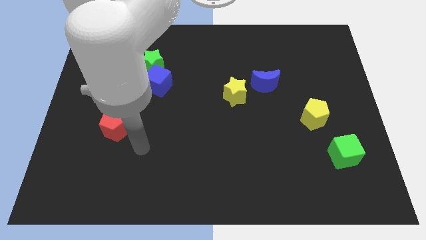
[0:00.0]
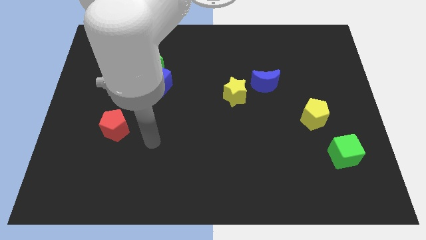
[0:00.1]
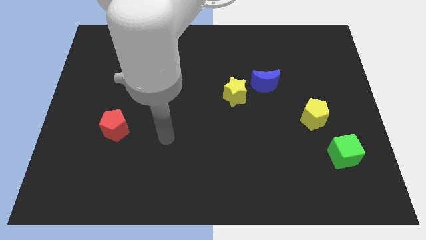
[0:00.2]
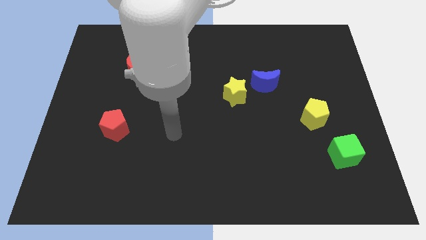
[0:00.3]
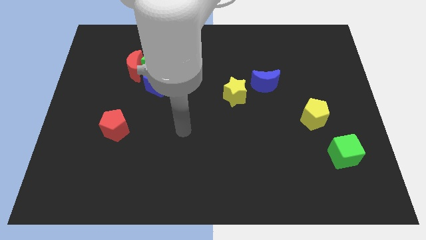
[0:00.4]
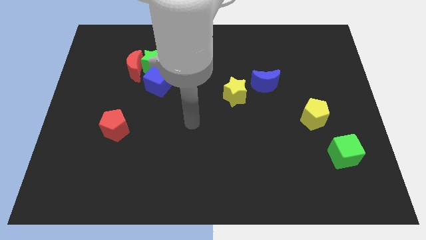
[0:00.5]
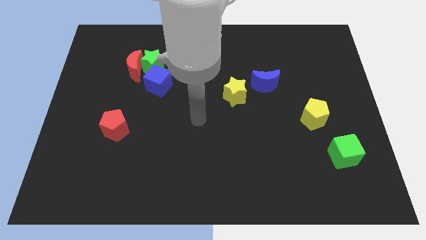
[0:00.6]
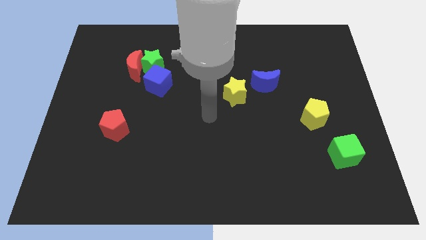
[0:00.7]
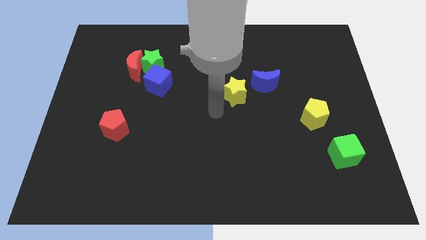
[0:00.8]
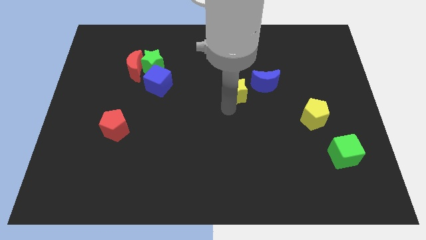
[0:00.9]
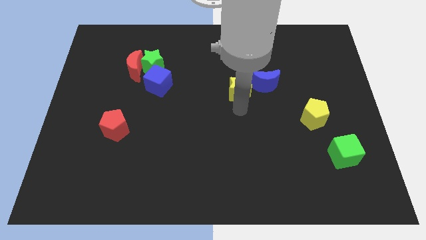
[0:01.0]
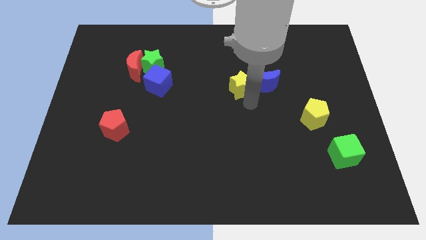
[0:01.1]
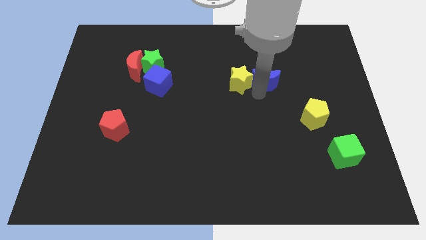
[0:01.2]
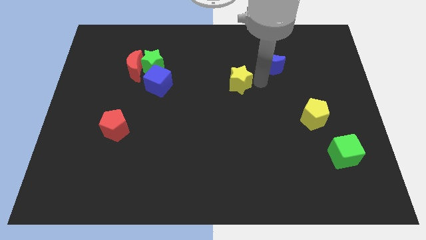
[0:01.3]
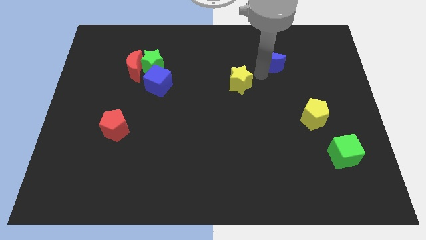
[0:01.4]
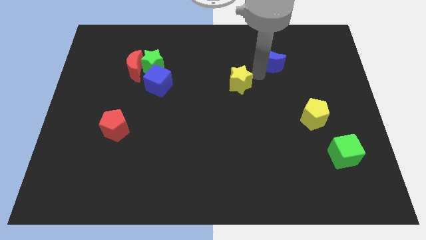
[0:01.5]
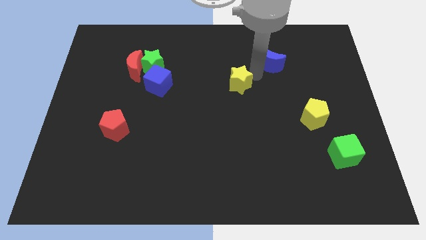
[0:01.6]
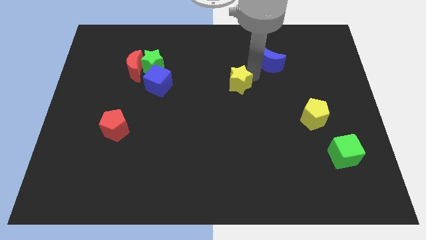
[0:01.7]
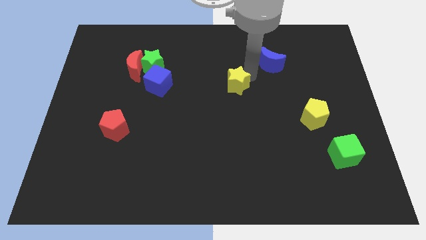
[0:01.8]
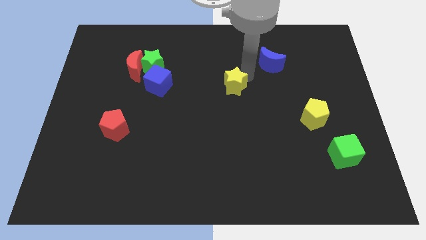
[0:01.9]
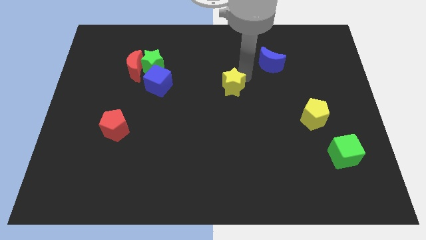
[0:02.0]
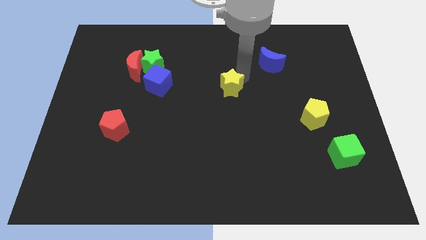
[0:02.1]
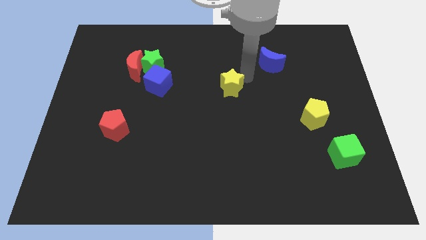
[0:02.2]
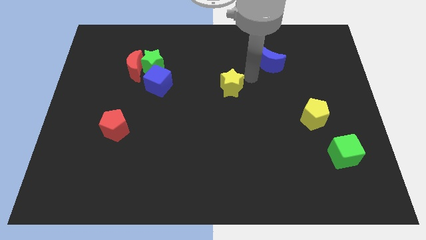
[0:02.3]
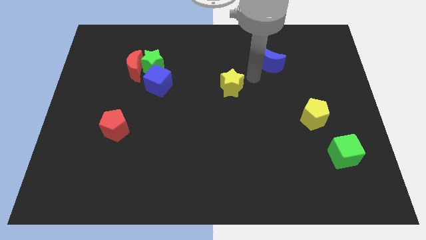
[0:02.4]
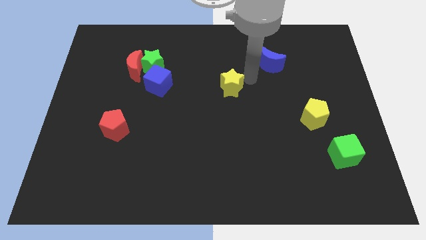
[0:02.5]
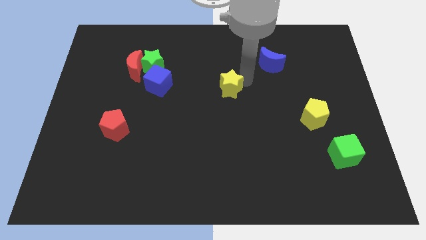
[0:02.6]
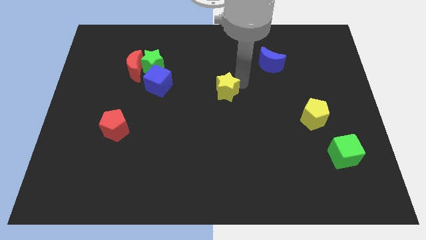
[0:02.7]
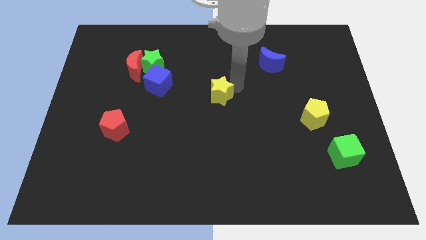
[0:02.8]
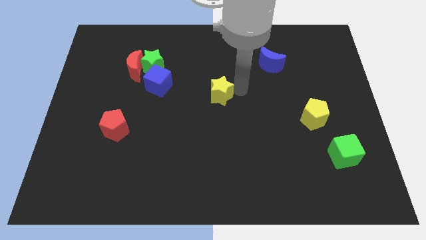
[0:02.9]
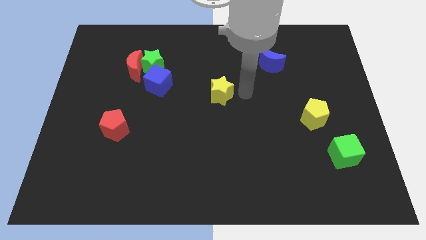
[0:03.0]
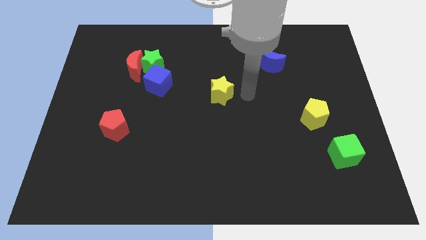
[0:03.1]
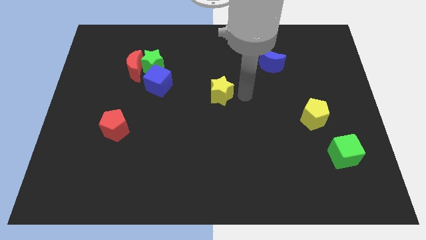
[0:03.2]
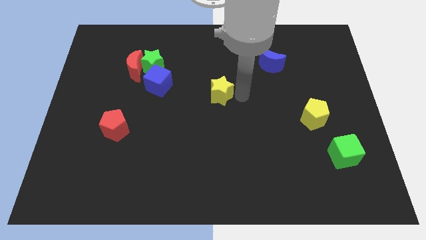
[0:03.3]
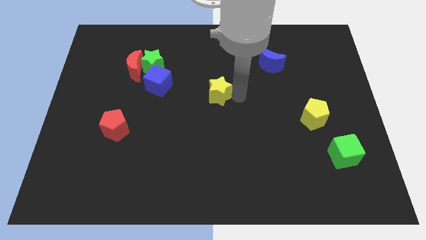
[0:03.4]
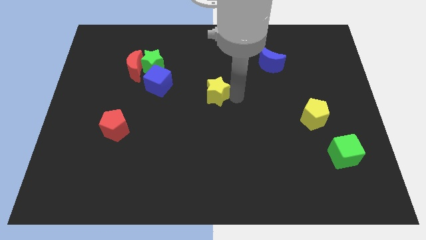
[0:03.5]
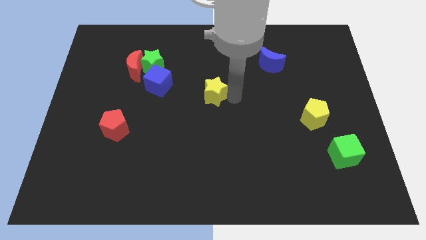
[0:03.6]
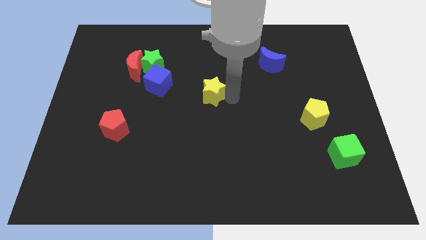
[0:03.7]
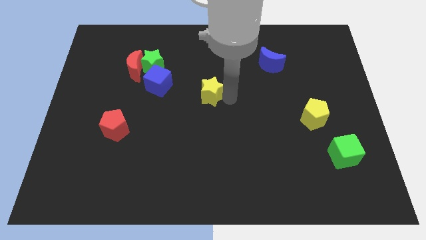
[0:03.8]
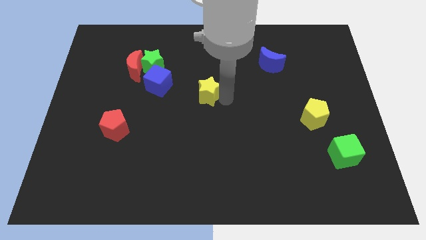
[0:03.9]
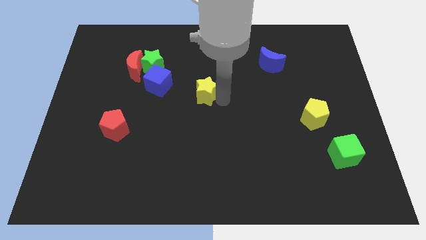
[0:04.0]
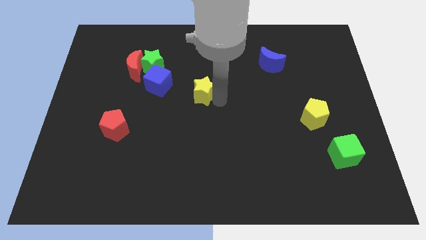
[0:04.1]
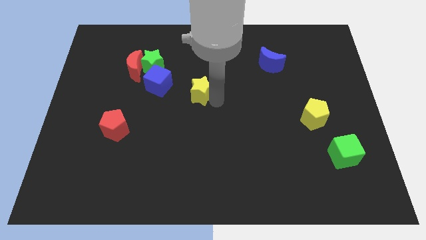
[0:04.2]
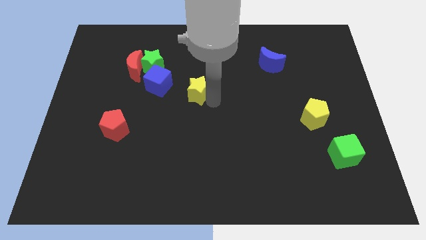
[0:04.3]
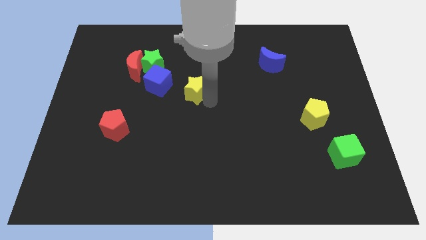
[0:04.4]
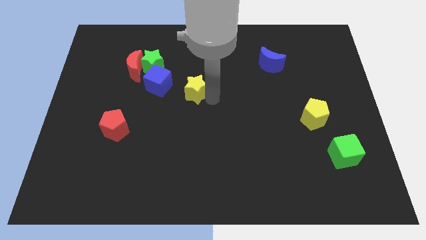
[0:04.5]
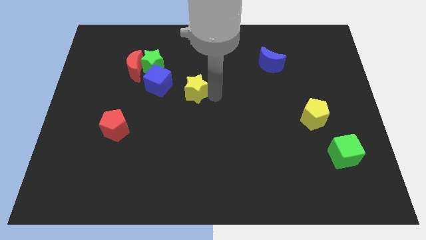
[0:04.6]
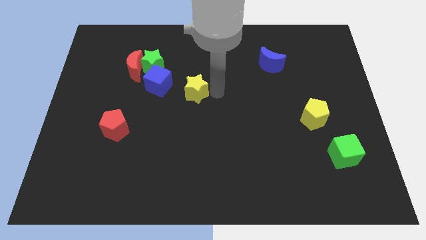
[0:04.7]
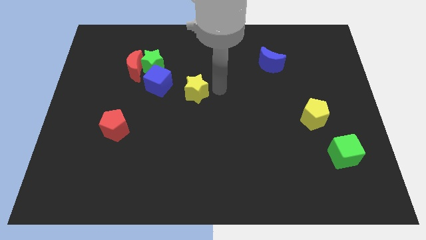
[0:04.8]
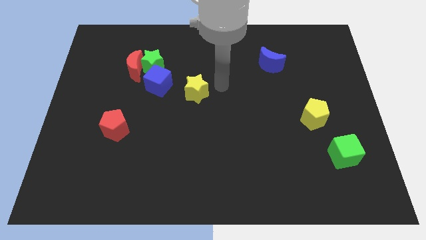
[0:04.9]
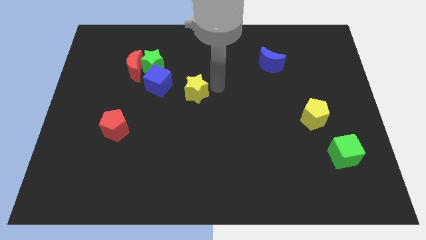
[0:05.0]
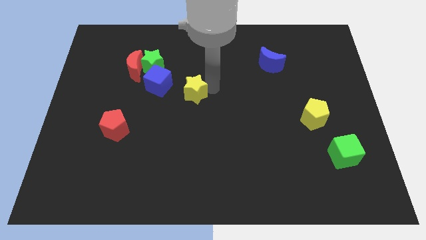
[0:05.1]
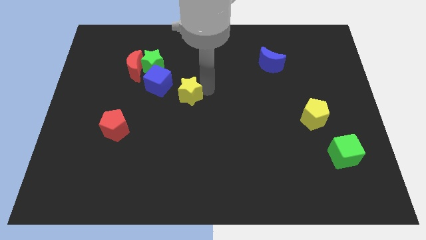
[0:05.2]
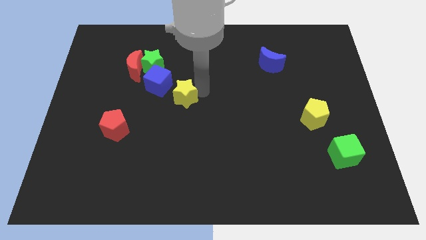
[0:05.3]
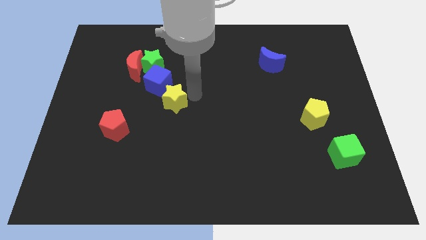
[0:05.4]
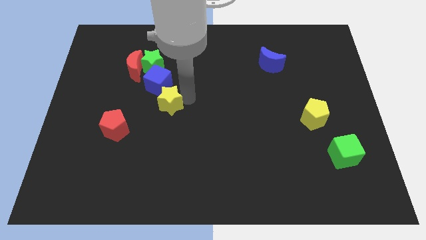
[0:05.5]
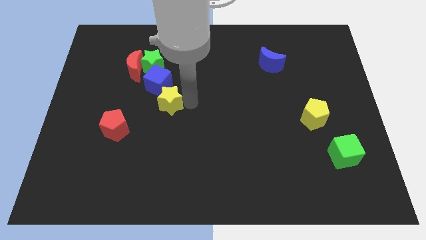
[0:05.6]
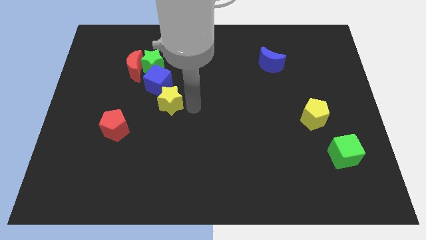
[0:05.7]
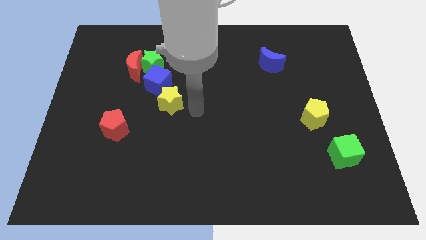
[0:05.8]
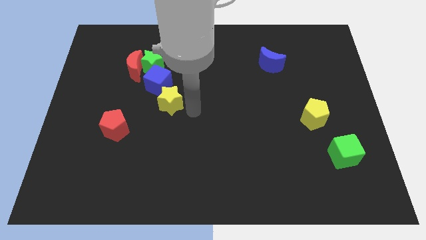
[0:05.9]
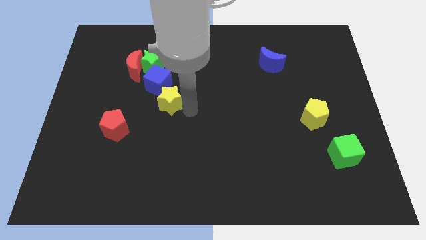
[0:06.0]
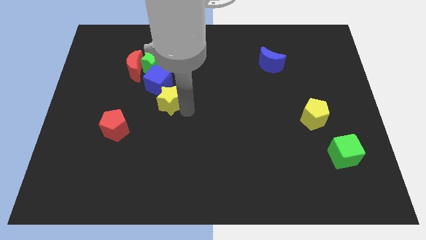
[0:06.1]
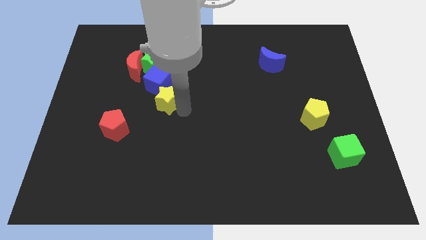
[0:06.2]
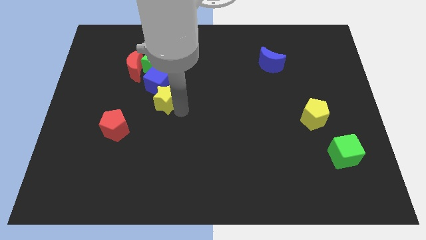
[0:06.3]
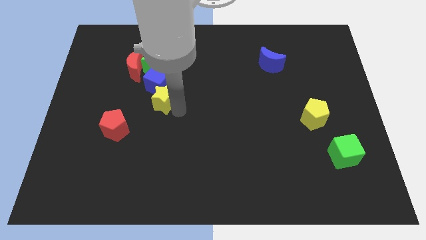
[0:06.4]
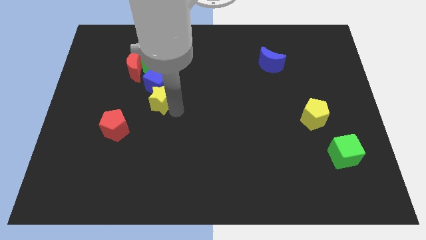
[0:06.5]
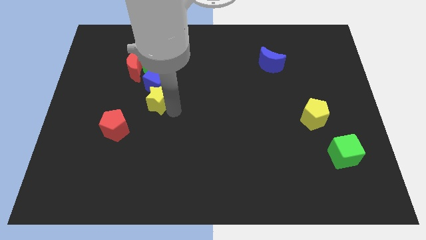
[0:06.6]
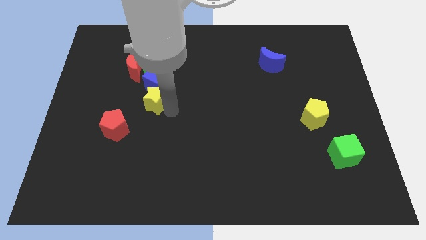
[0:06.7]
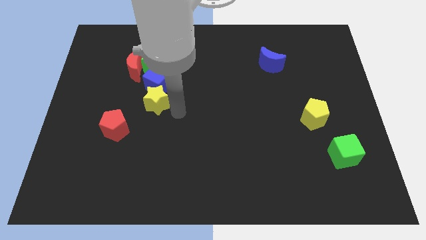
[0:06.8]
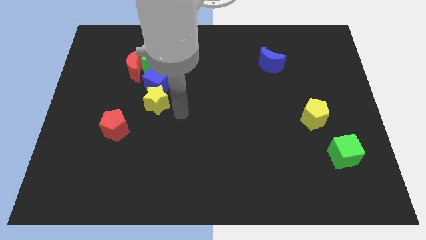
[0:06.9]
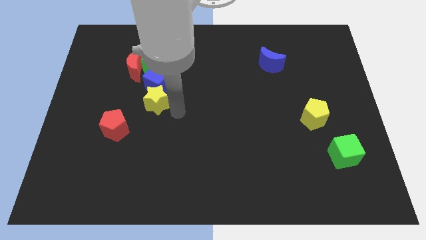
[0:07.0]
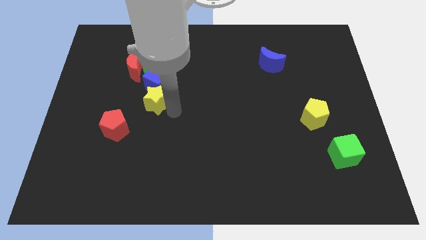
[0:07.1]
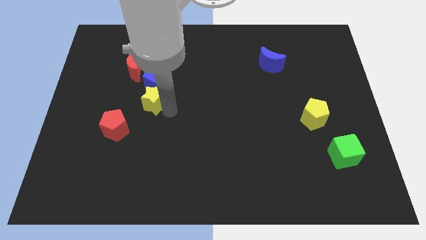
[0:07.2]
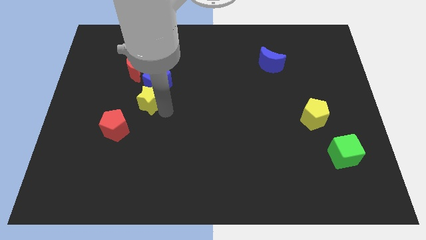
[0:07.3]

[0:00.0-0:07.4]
slide the yellow star left

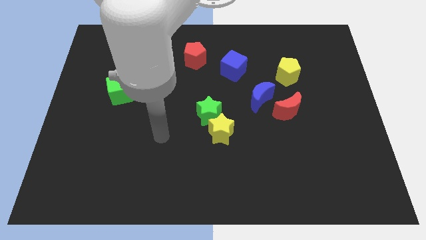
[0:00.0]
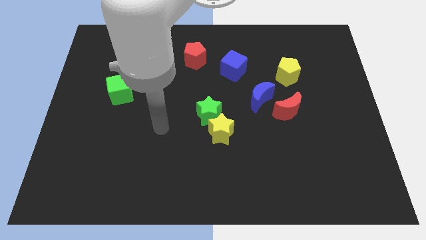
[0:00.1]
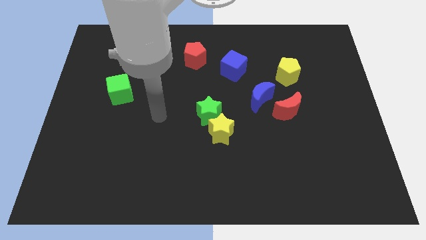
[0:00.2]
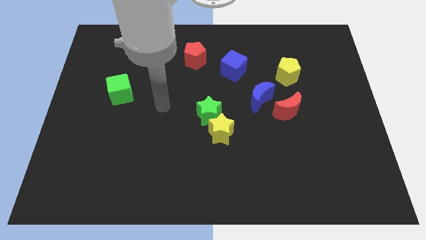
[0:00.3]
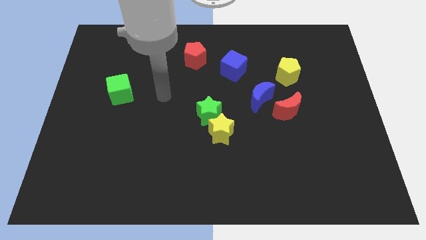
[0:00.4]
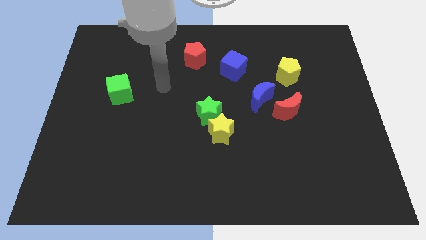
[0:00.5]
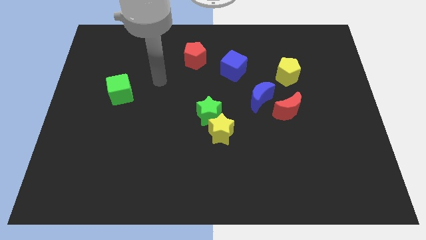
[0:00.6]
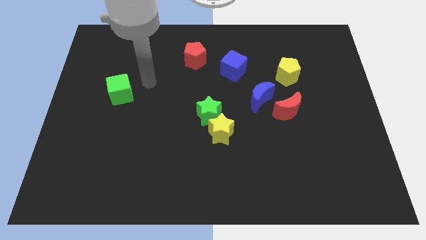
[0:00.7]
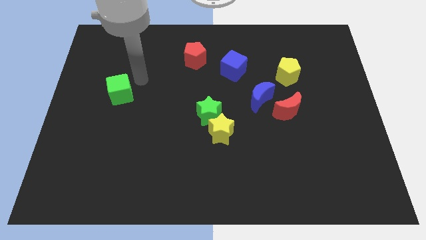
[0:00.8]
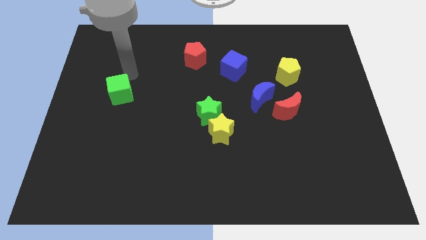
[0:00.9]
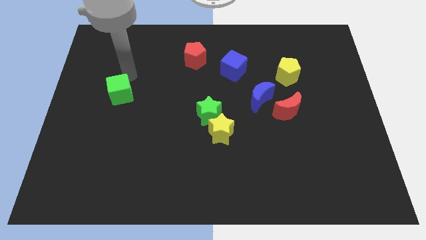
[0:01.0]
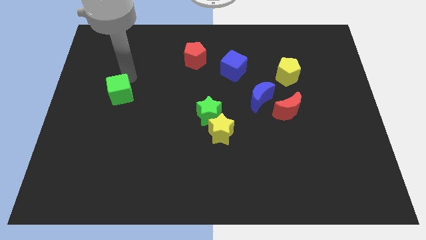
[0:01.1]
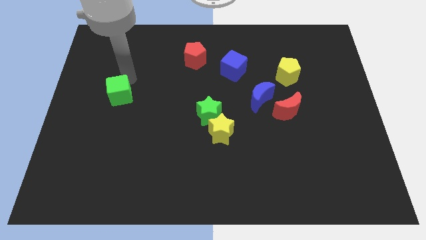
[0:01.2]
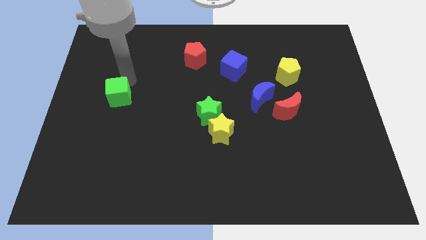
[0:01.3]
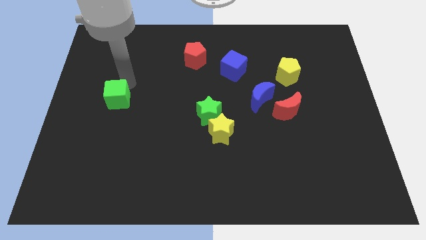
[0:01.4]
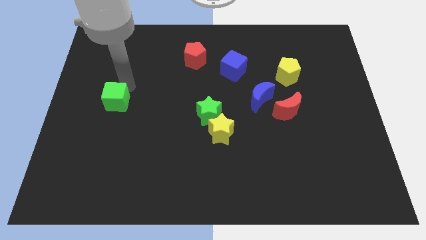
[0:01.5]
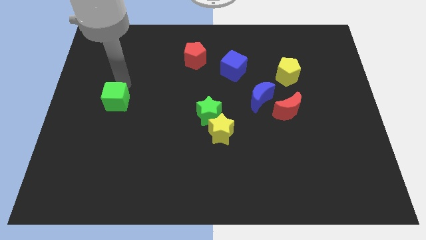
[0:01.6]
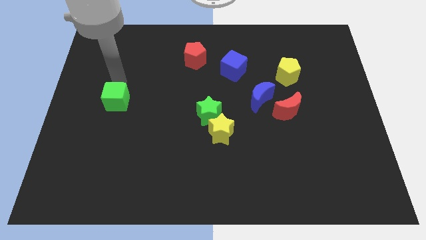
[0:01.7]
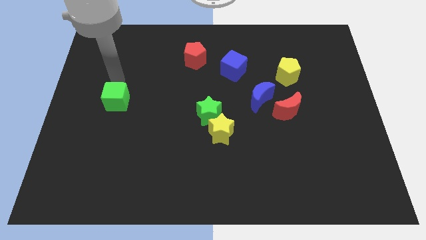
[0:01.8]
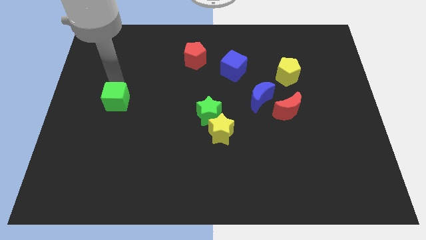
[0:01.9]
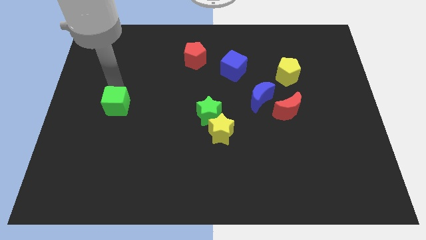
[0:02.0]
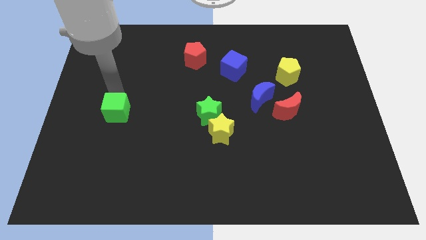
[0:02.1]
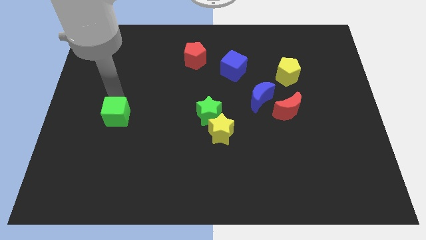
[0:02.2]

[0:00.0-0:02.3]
slide the green cube downwards slightly
